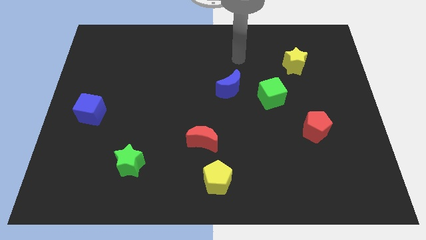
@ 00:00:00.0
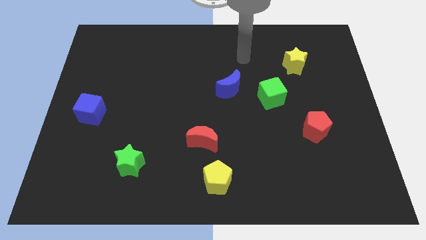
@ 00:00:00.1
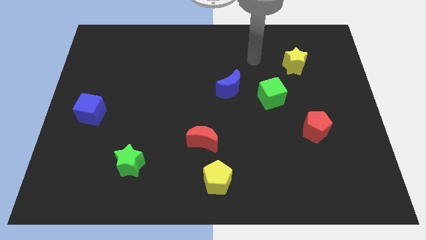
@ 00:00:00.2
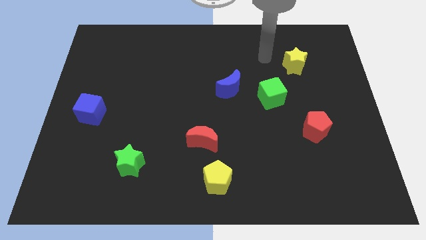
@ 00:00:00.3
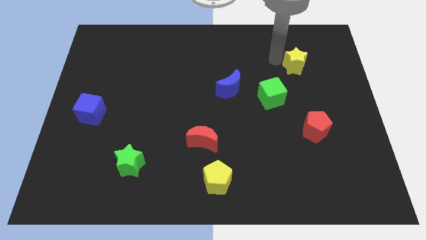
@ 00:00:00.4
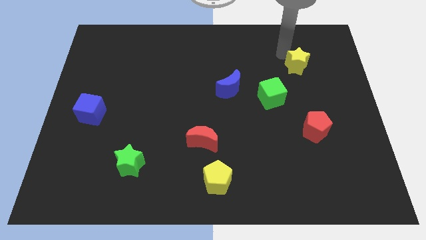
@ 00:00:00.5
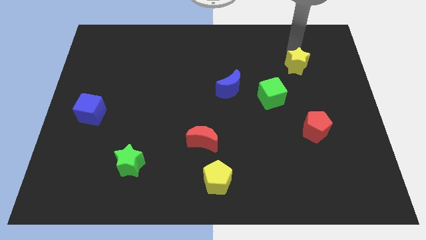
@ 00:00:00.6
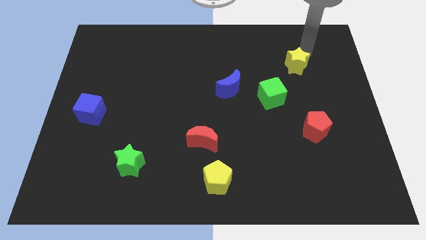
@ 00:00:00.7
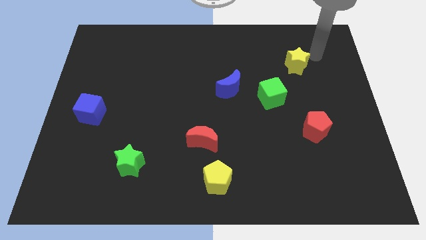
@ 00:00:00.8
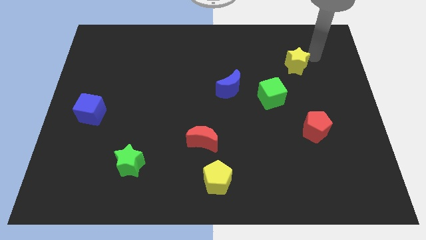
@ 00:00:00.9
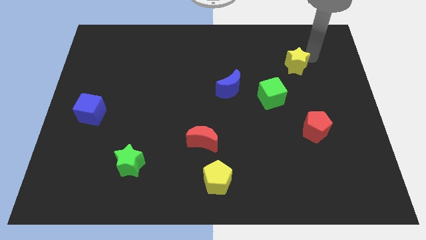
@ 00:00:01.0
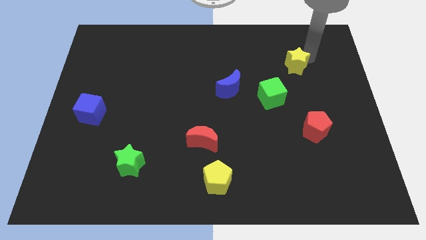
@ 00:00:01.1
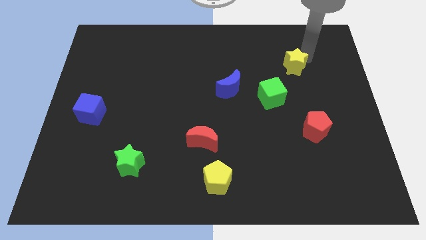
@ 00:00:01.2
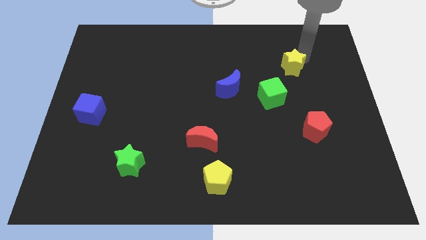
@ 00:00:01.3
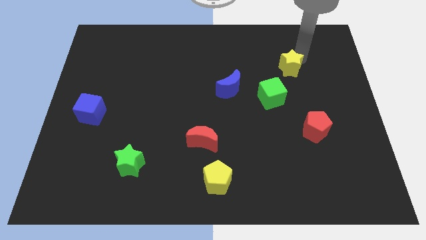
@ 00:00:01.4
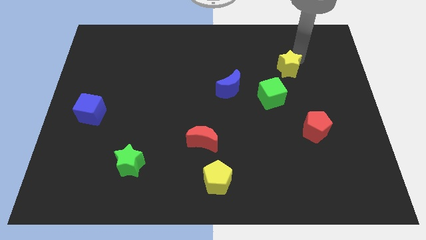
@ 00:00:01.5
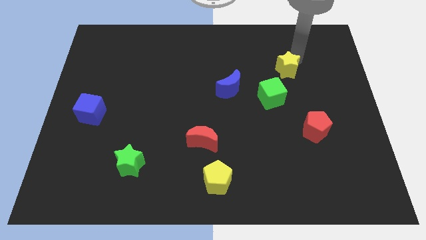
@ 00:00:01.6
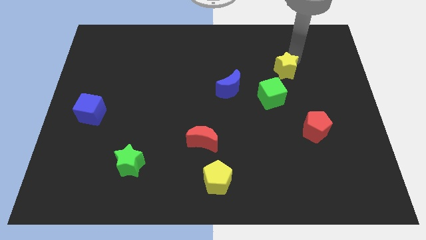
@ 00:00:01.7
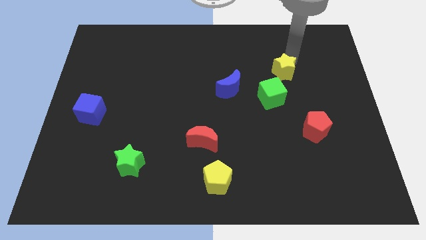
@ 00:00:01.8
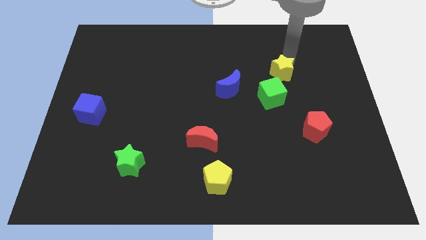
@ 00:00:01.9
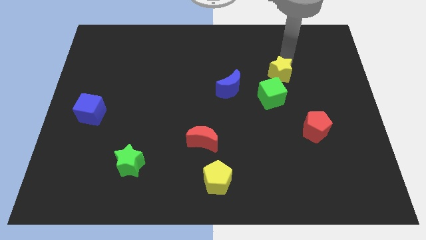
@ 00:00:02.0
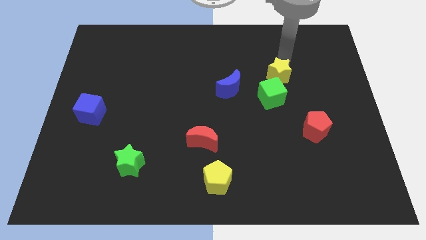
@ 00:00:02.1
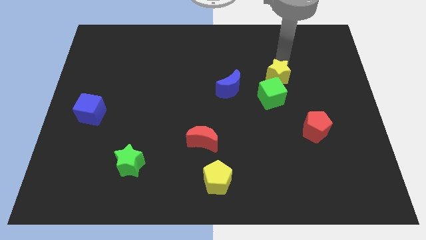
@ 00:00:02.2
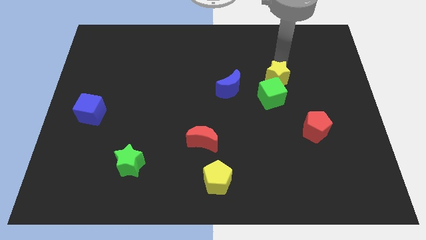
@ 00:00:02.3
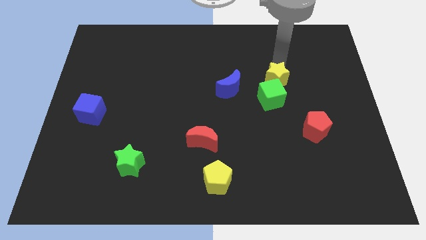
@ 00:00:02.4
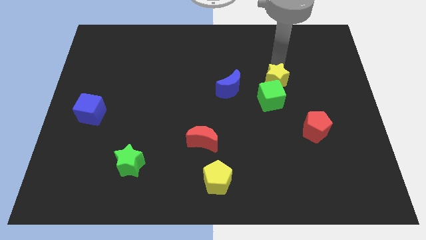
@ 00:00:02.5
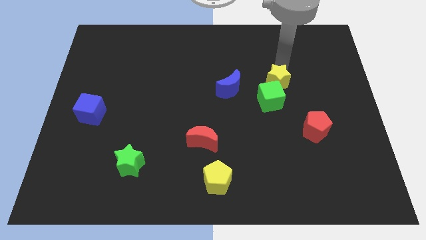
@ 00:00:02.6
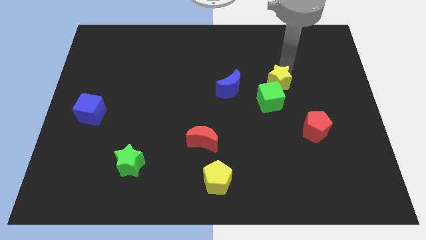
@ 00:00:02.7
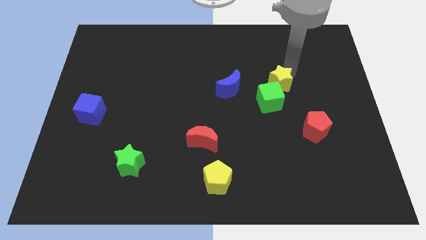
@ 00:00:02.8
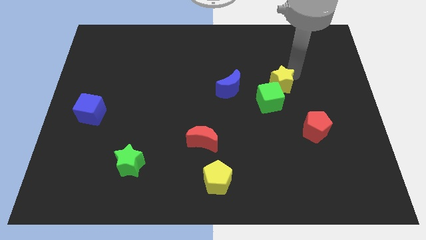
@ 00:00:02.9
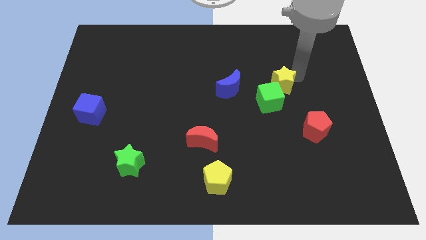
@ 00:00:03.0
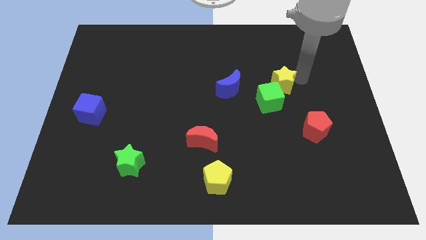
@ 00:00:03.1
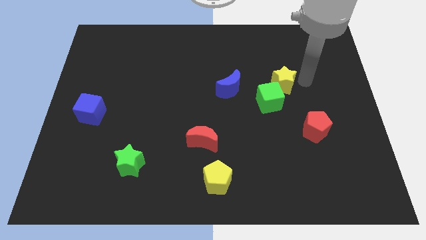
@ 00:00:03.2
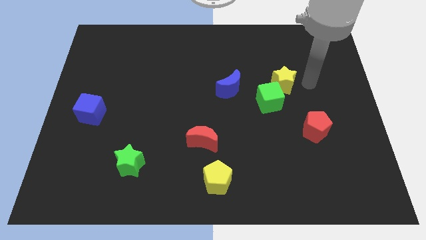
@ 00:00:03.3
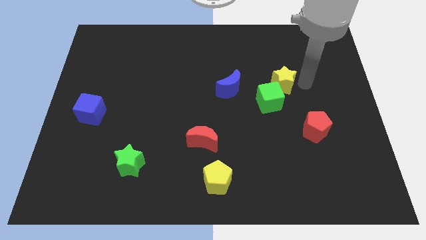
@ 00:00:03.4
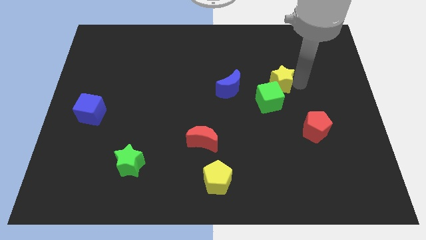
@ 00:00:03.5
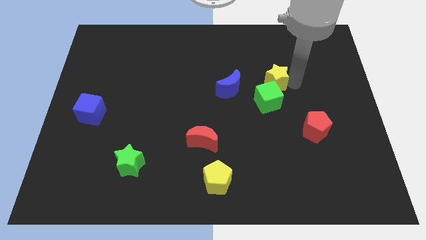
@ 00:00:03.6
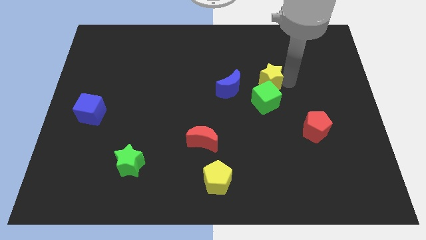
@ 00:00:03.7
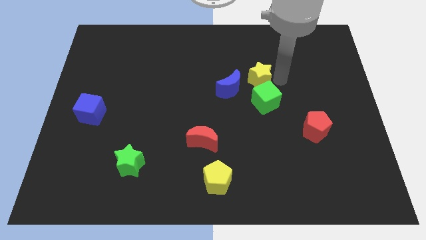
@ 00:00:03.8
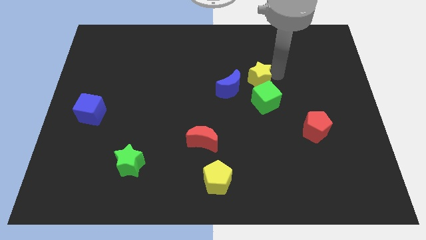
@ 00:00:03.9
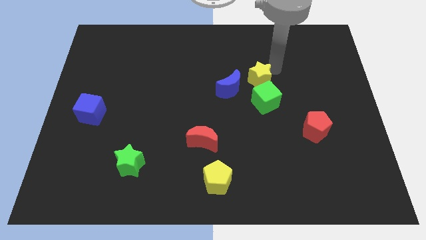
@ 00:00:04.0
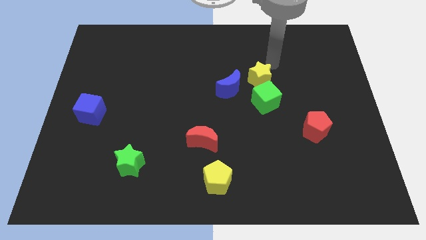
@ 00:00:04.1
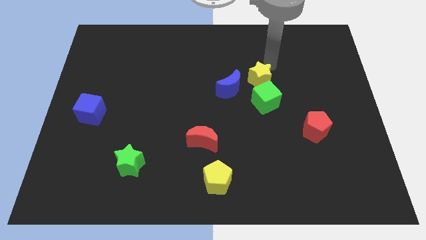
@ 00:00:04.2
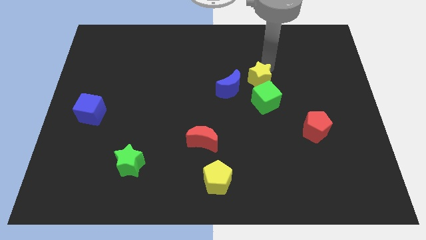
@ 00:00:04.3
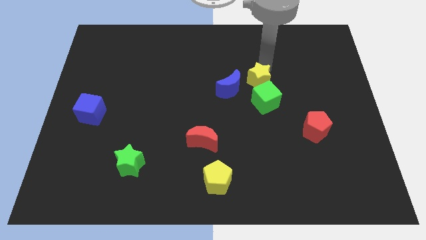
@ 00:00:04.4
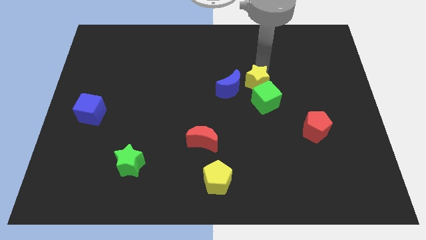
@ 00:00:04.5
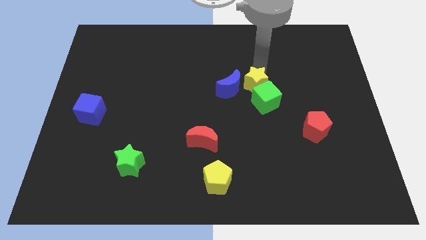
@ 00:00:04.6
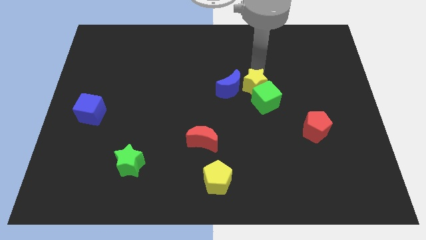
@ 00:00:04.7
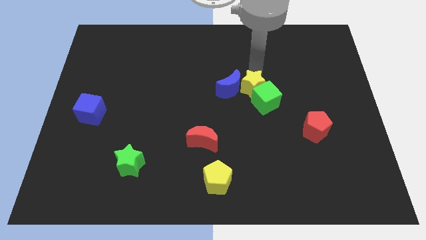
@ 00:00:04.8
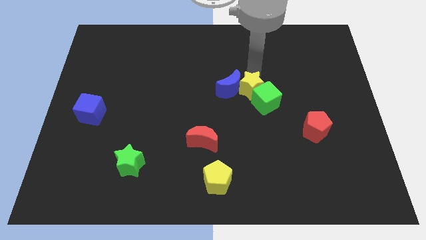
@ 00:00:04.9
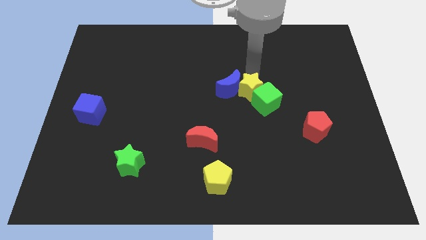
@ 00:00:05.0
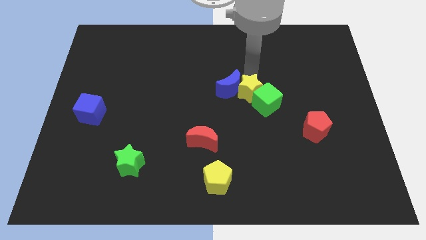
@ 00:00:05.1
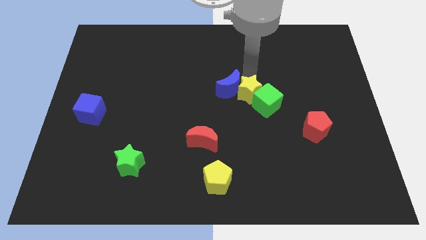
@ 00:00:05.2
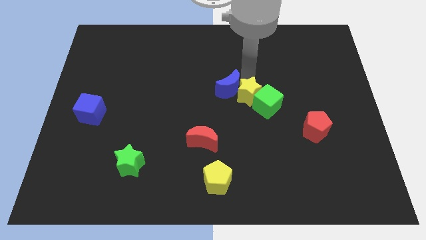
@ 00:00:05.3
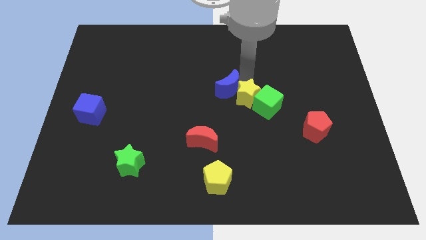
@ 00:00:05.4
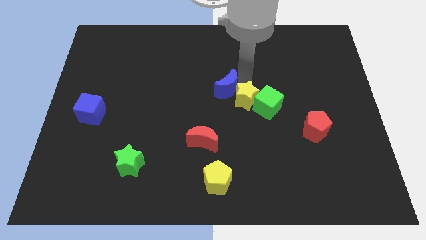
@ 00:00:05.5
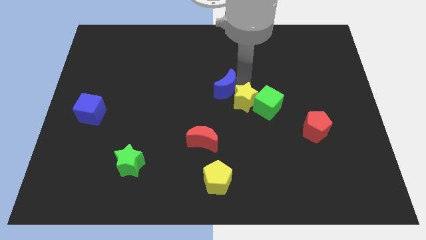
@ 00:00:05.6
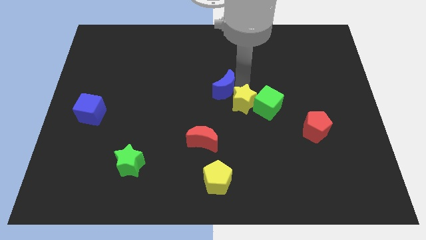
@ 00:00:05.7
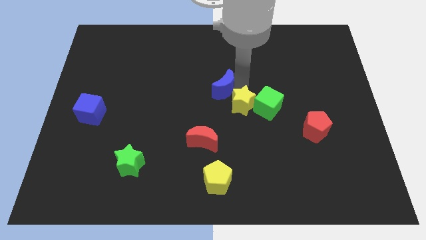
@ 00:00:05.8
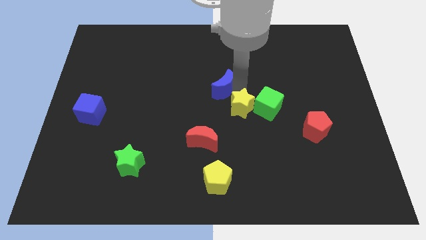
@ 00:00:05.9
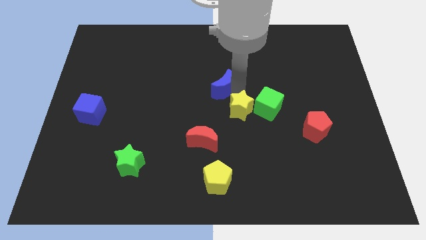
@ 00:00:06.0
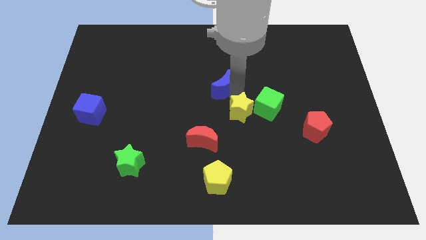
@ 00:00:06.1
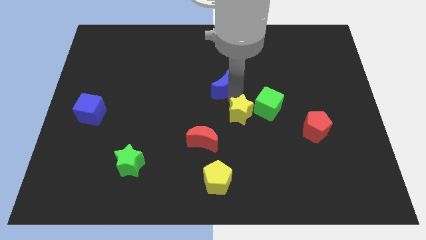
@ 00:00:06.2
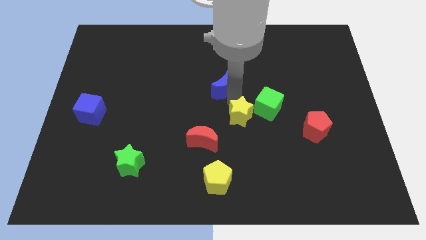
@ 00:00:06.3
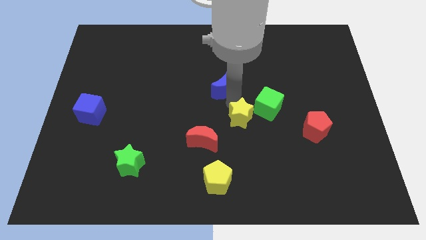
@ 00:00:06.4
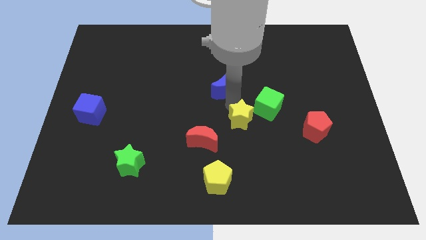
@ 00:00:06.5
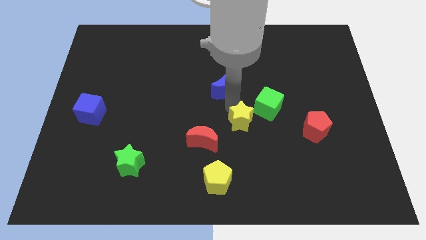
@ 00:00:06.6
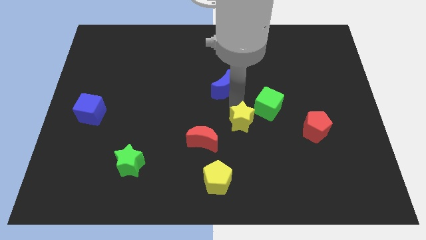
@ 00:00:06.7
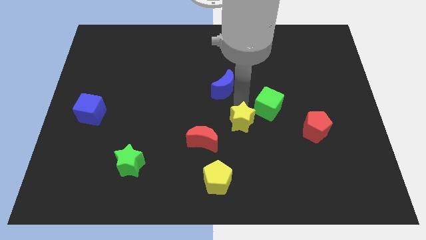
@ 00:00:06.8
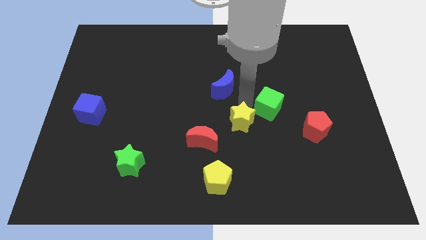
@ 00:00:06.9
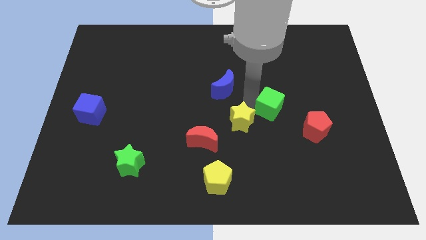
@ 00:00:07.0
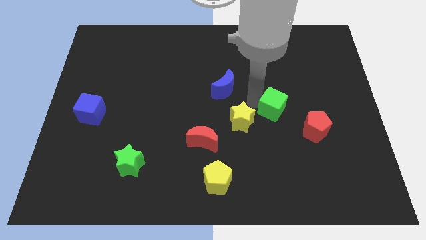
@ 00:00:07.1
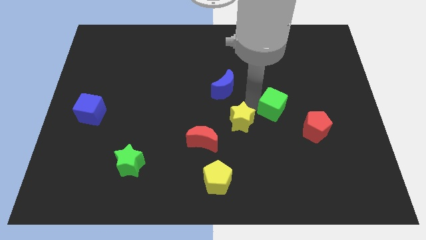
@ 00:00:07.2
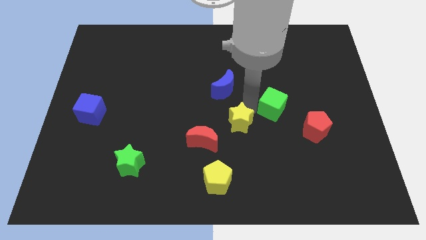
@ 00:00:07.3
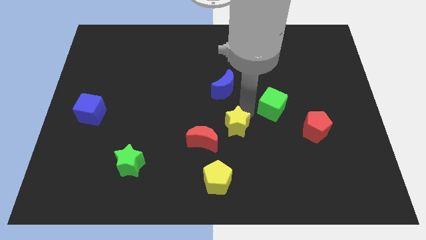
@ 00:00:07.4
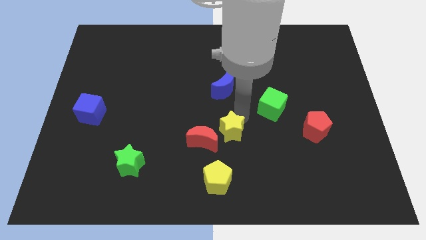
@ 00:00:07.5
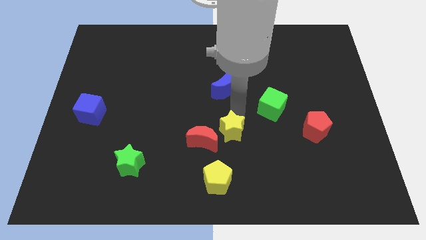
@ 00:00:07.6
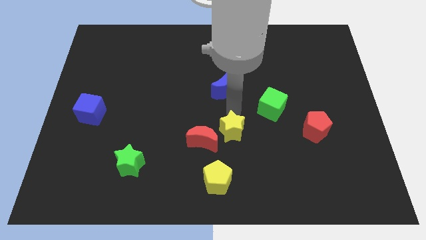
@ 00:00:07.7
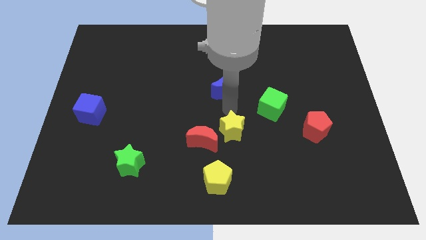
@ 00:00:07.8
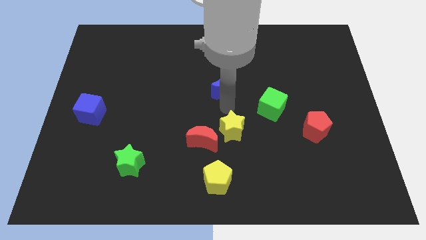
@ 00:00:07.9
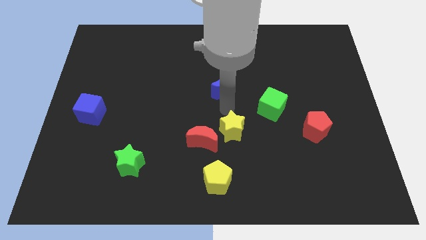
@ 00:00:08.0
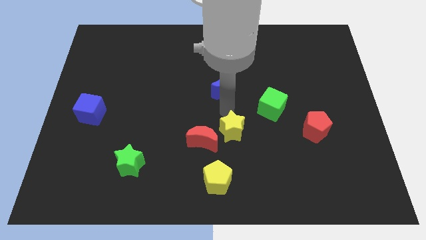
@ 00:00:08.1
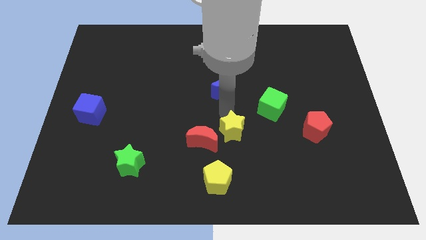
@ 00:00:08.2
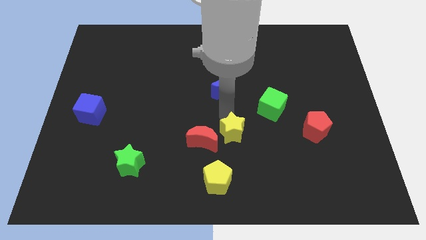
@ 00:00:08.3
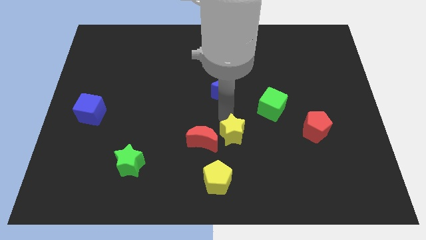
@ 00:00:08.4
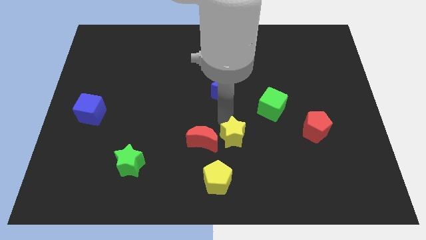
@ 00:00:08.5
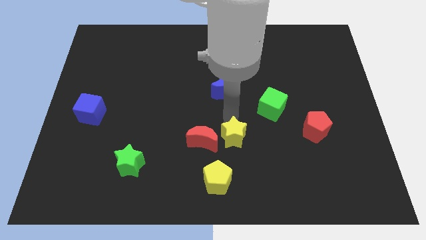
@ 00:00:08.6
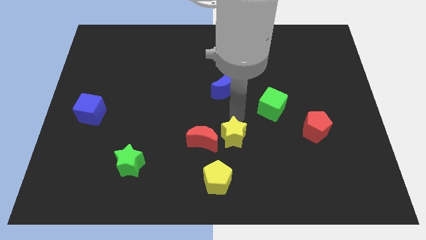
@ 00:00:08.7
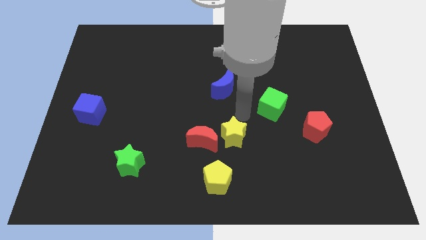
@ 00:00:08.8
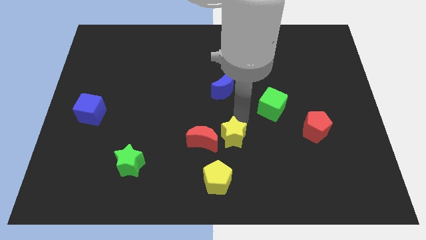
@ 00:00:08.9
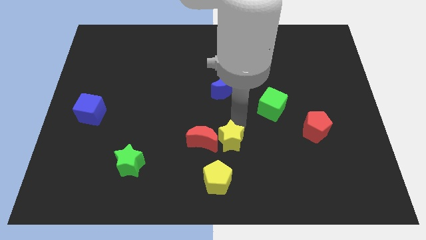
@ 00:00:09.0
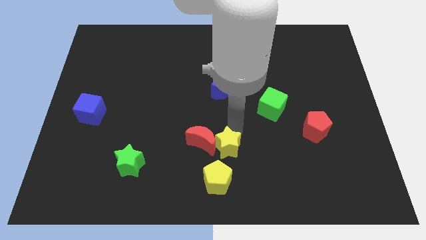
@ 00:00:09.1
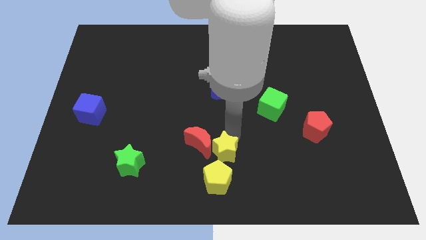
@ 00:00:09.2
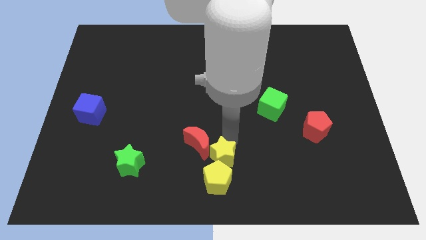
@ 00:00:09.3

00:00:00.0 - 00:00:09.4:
push the yellow star next to the yellow pentagon
